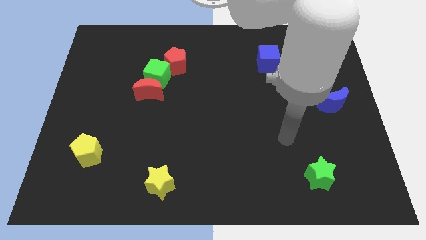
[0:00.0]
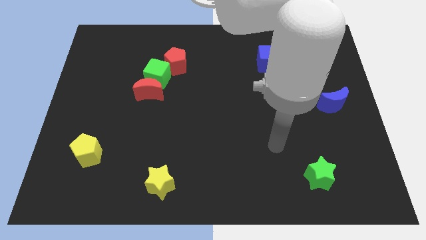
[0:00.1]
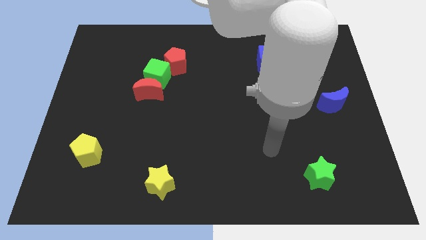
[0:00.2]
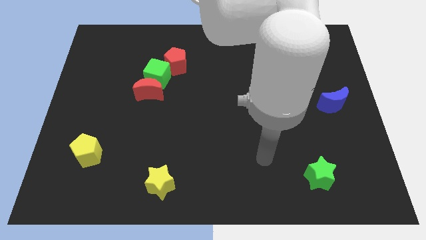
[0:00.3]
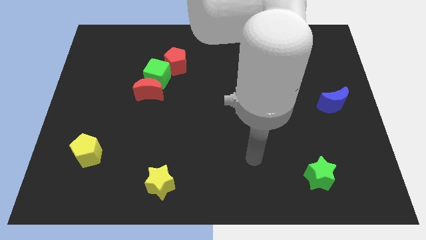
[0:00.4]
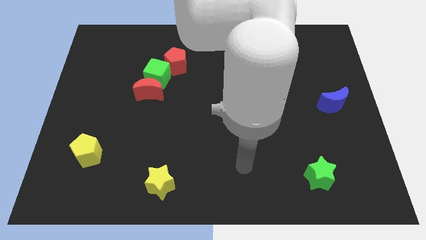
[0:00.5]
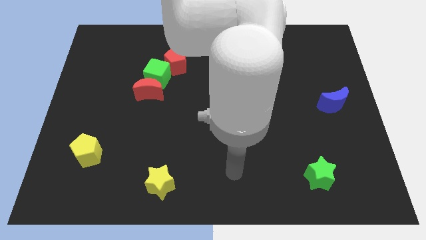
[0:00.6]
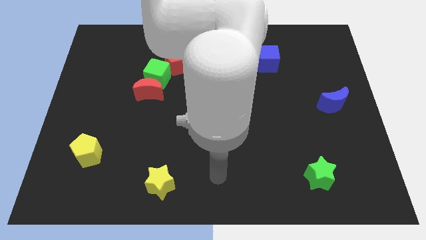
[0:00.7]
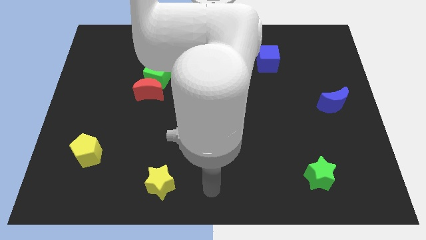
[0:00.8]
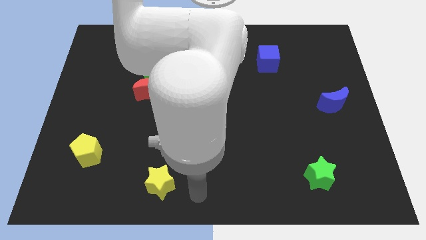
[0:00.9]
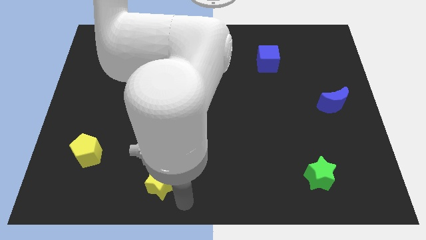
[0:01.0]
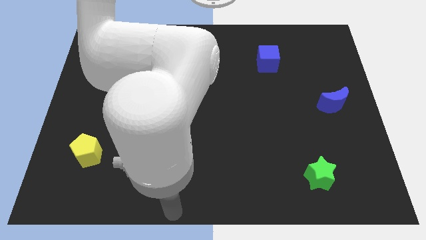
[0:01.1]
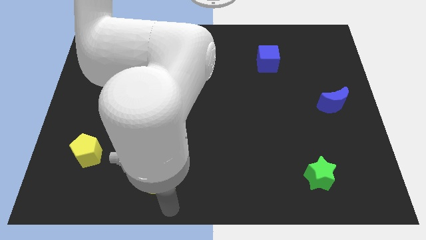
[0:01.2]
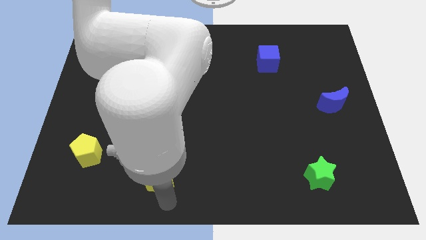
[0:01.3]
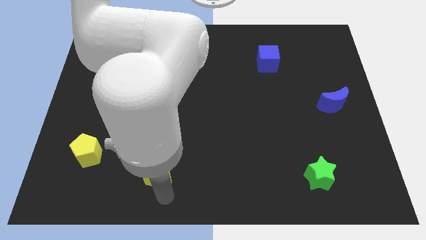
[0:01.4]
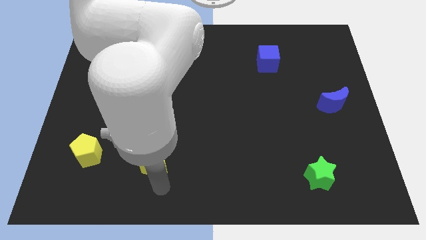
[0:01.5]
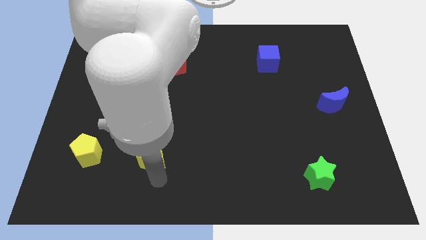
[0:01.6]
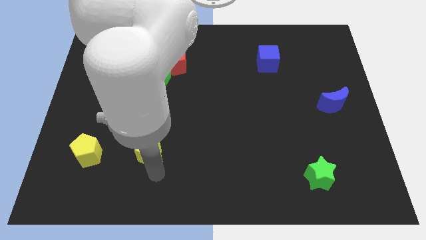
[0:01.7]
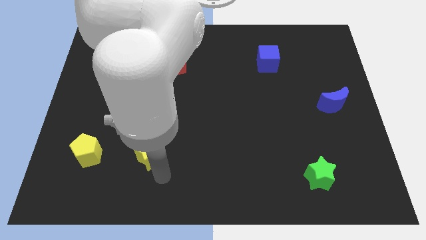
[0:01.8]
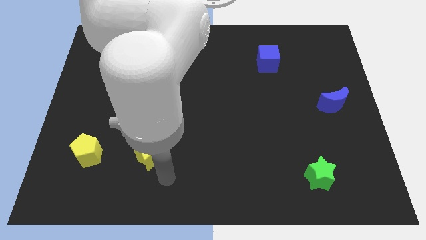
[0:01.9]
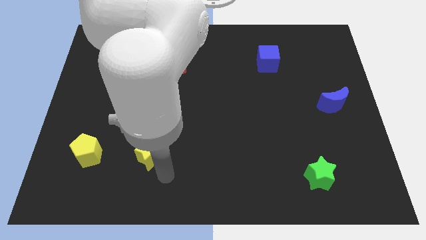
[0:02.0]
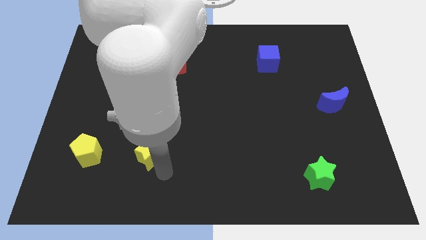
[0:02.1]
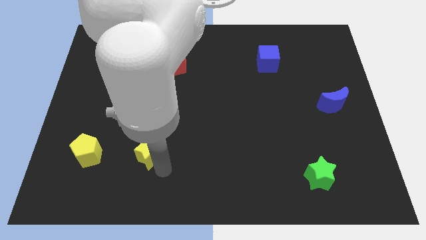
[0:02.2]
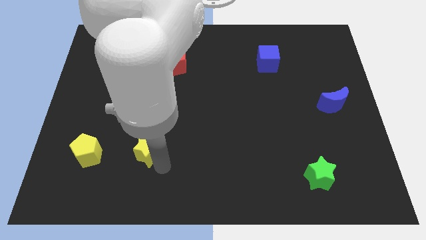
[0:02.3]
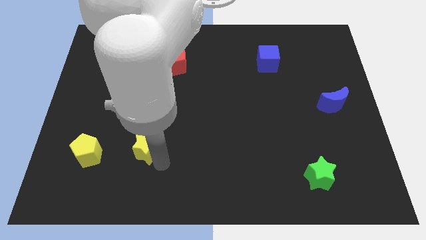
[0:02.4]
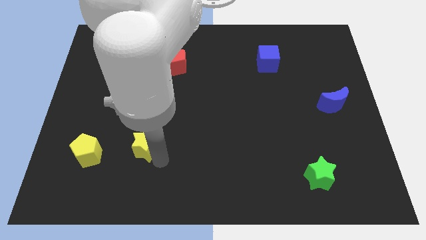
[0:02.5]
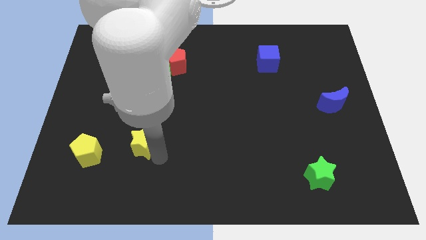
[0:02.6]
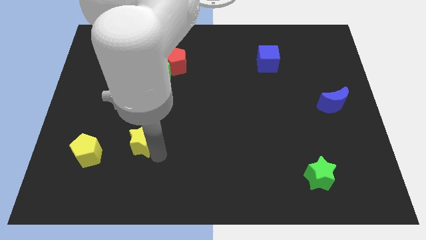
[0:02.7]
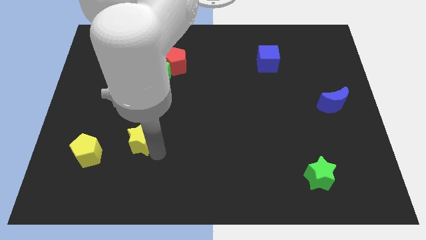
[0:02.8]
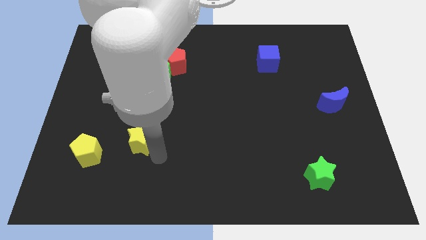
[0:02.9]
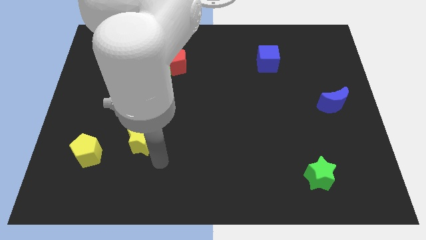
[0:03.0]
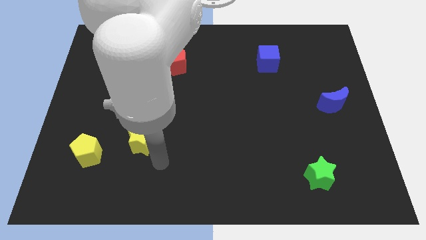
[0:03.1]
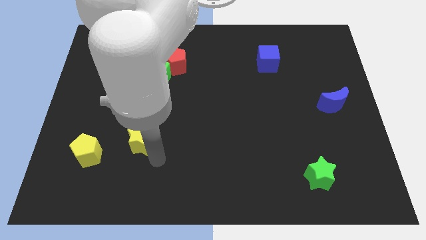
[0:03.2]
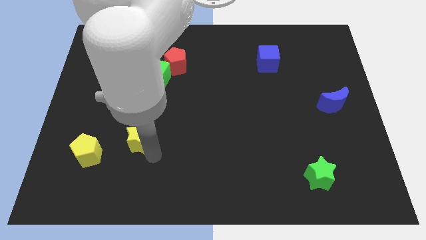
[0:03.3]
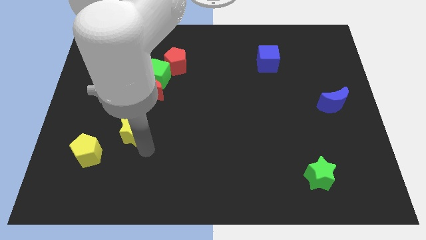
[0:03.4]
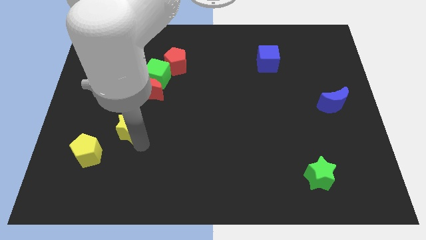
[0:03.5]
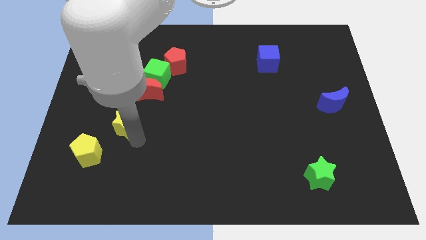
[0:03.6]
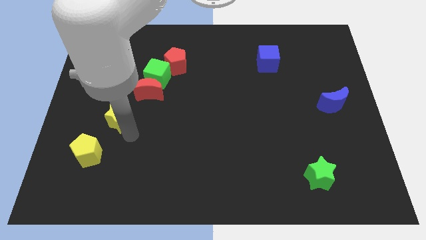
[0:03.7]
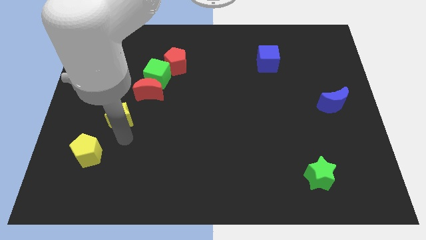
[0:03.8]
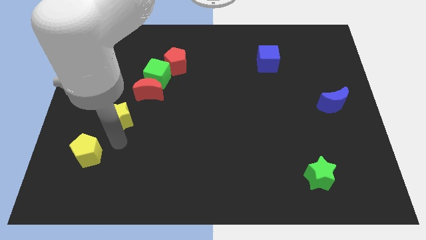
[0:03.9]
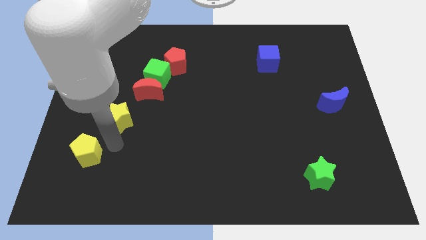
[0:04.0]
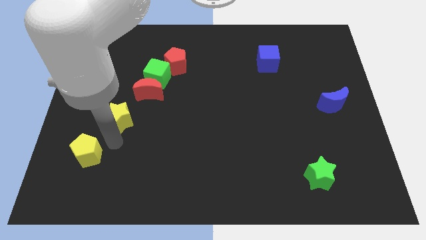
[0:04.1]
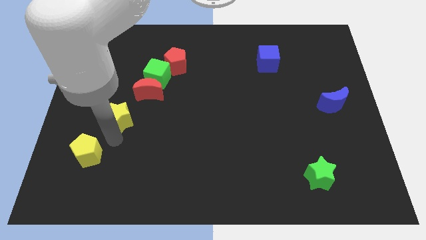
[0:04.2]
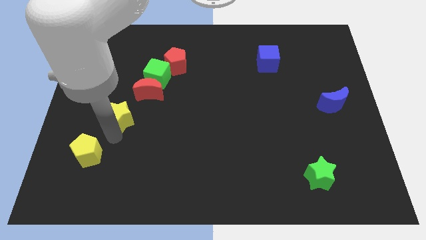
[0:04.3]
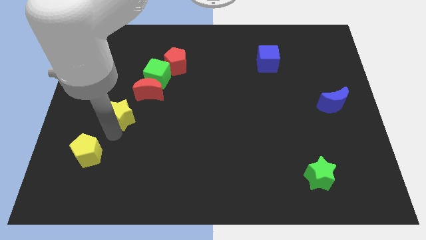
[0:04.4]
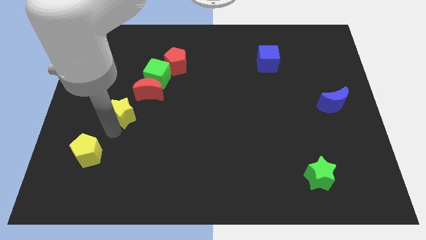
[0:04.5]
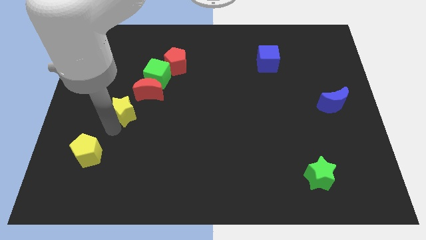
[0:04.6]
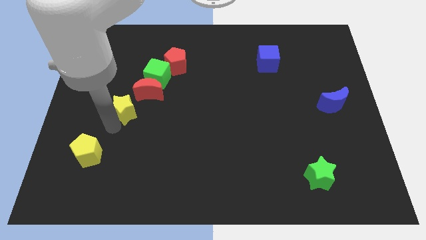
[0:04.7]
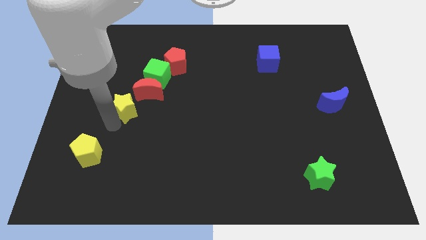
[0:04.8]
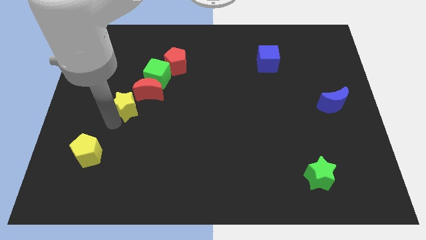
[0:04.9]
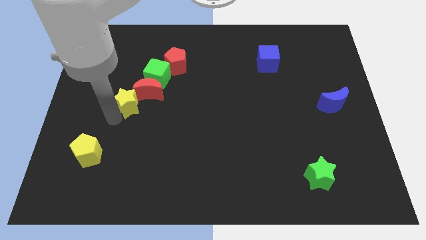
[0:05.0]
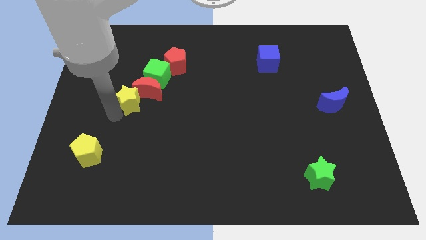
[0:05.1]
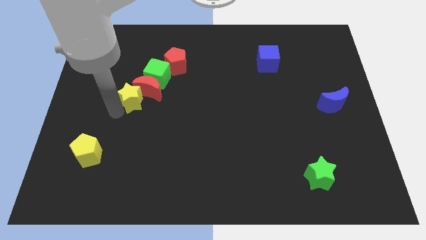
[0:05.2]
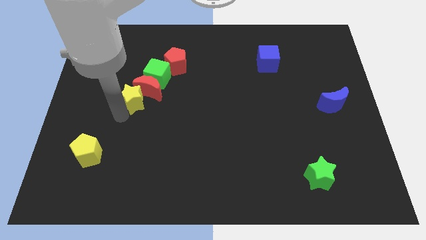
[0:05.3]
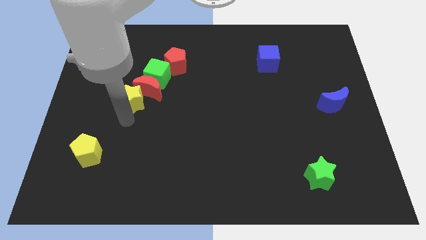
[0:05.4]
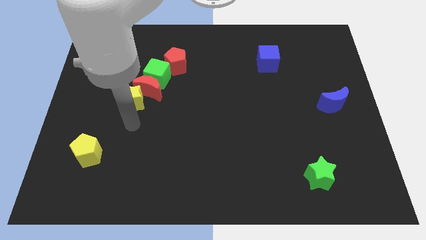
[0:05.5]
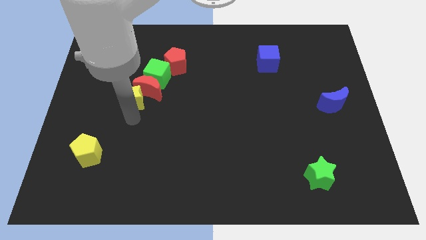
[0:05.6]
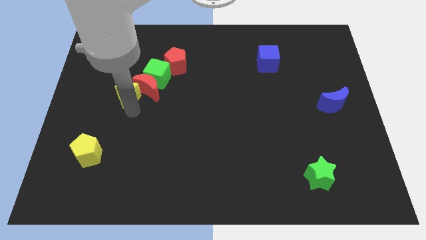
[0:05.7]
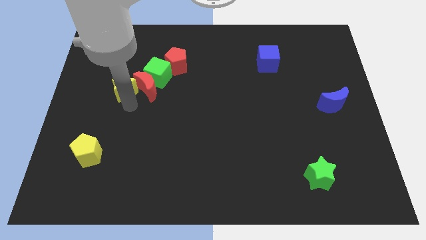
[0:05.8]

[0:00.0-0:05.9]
move the yellow star to the top left of the red moon

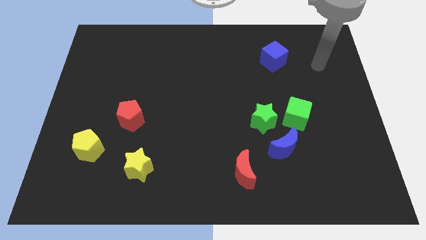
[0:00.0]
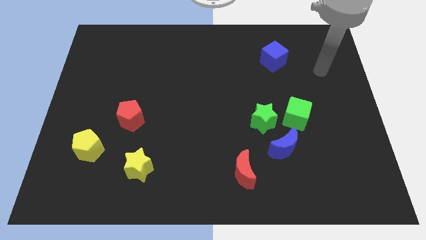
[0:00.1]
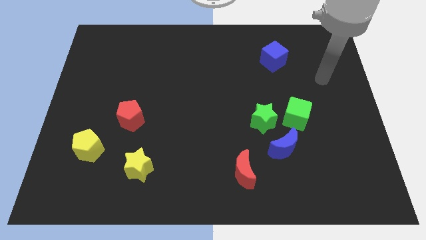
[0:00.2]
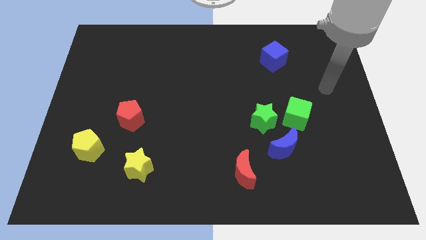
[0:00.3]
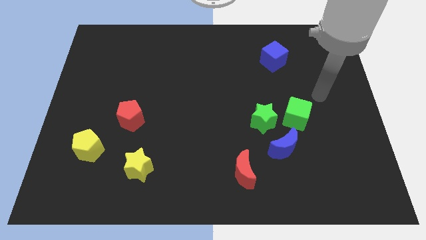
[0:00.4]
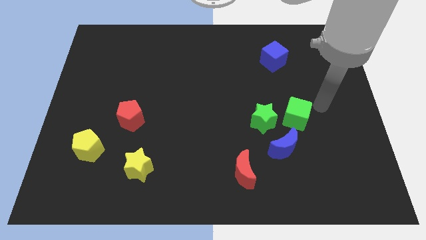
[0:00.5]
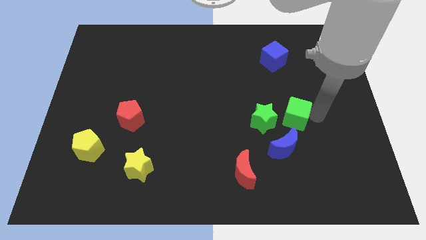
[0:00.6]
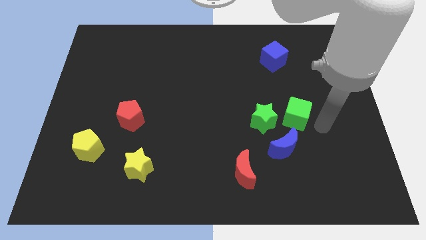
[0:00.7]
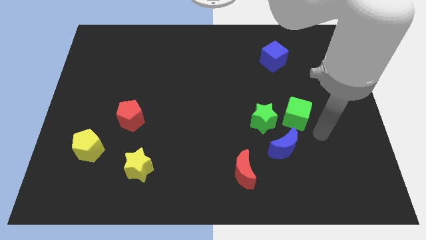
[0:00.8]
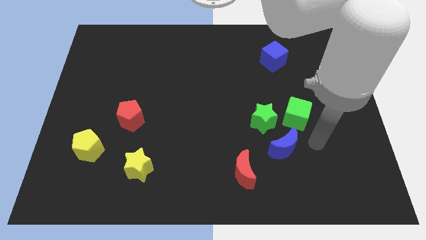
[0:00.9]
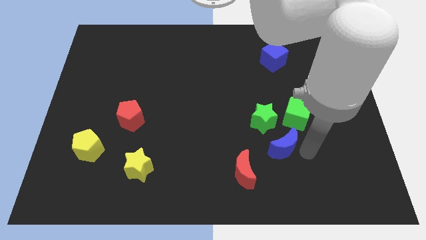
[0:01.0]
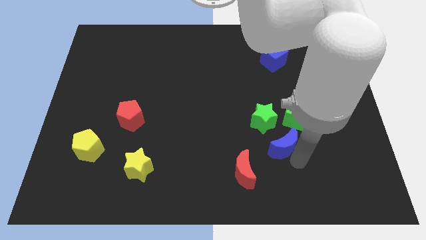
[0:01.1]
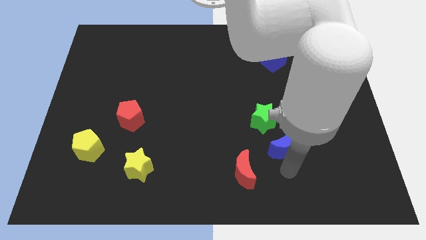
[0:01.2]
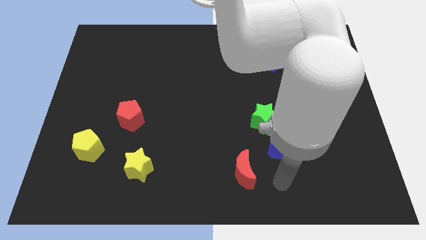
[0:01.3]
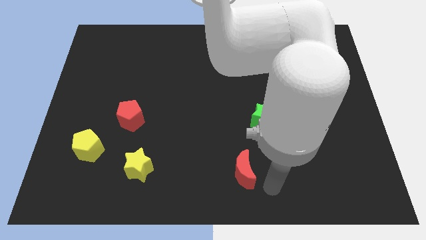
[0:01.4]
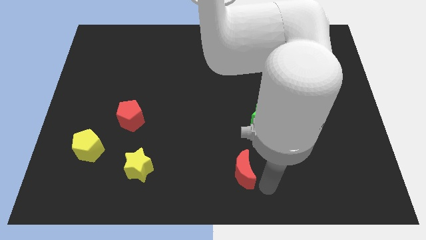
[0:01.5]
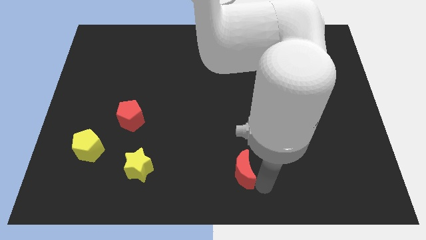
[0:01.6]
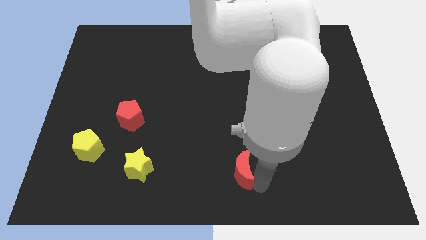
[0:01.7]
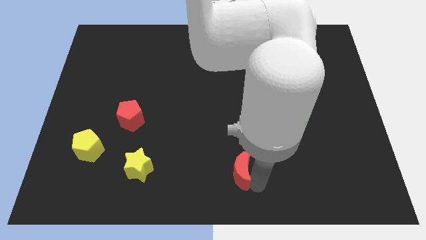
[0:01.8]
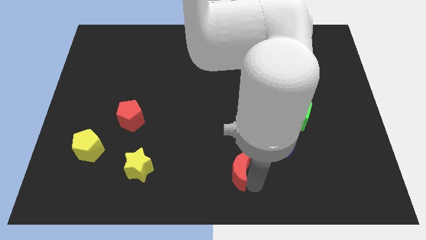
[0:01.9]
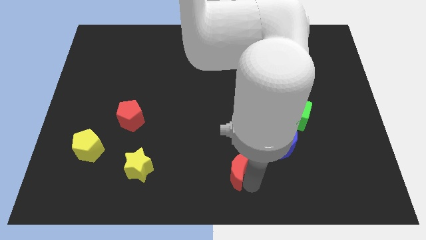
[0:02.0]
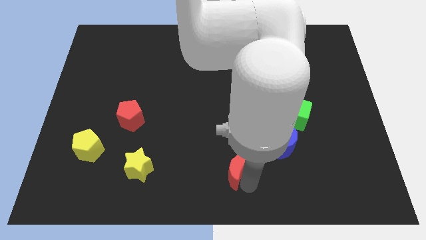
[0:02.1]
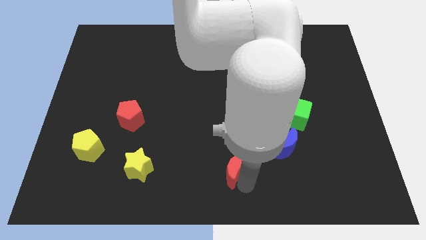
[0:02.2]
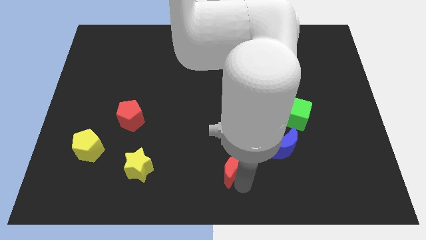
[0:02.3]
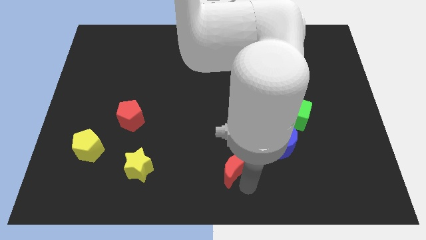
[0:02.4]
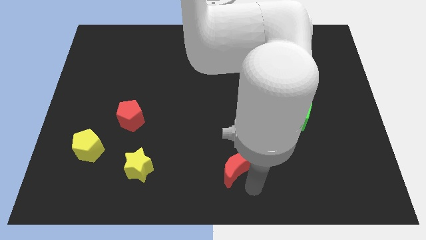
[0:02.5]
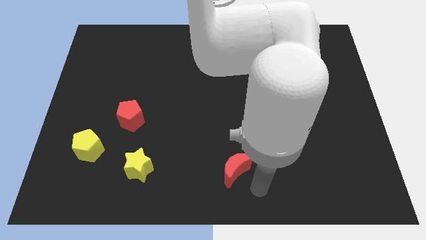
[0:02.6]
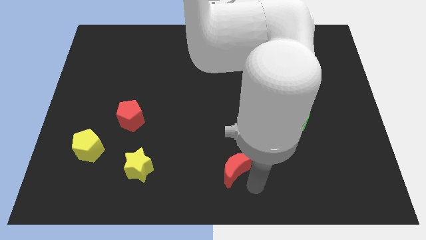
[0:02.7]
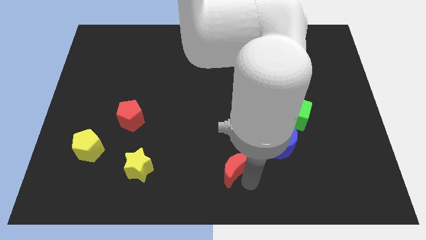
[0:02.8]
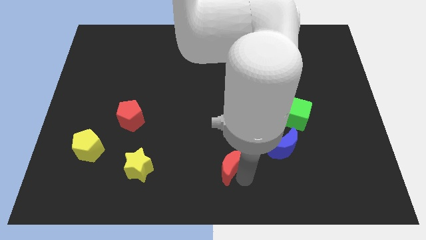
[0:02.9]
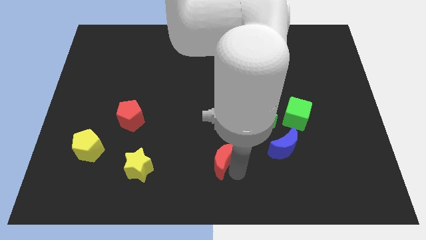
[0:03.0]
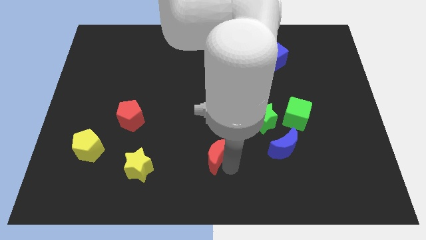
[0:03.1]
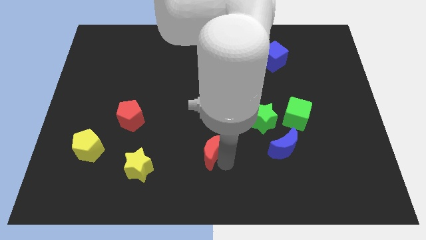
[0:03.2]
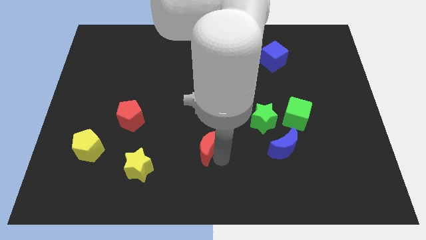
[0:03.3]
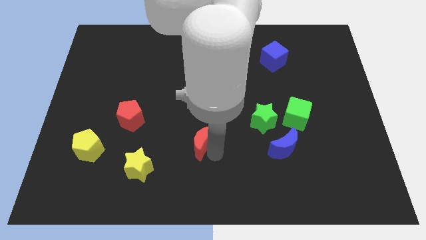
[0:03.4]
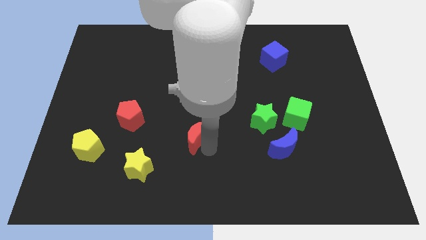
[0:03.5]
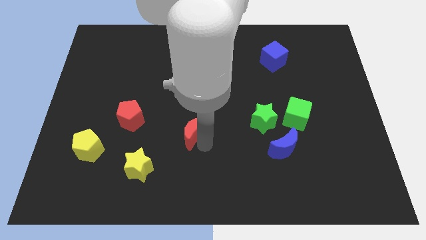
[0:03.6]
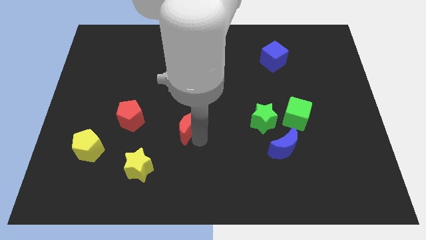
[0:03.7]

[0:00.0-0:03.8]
push the red moon to the right side of the red pentagon
